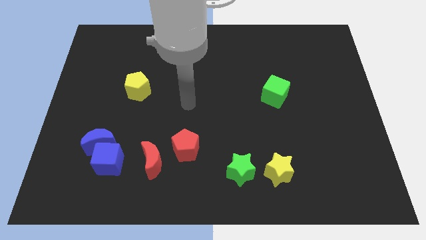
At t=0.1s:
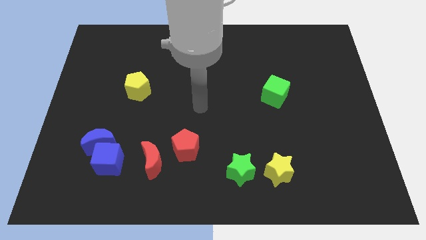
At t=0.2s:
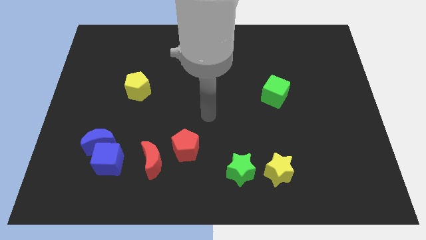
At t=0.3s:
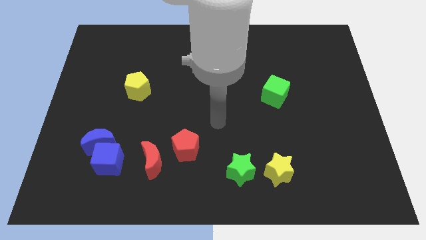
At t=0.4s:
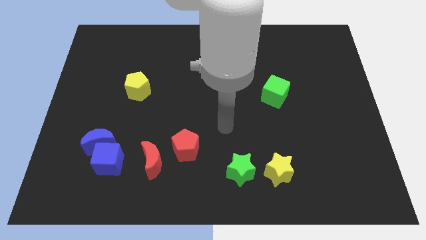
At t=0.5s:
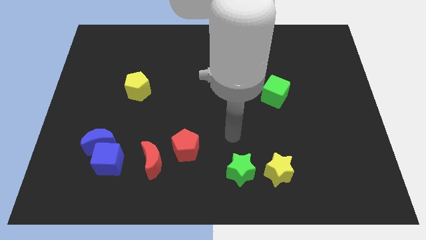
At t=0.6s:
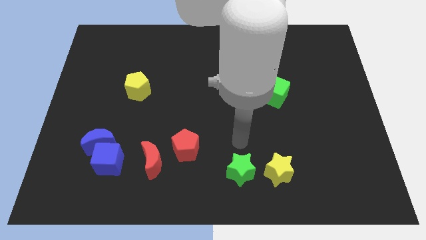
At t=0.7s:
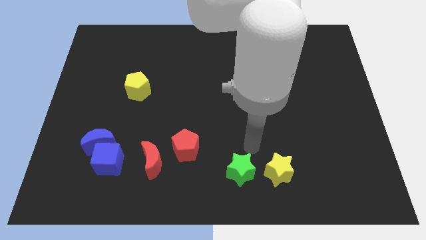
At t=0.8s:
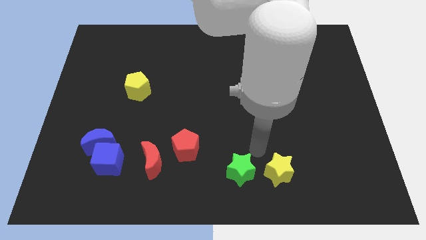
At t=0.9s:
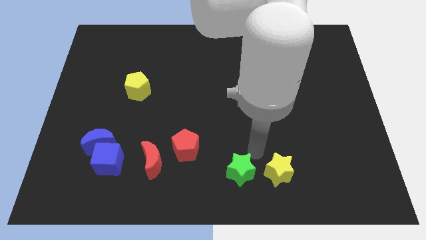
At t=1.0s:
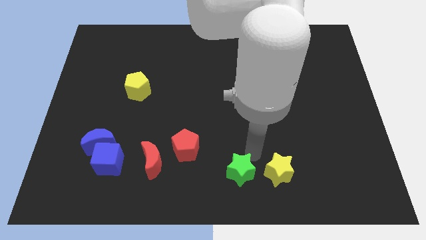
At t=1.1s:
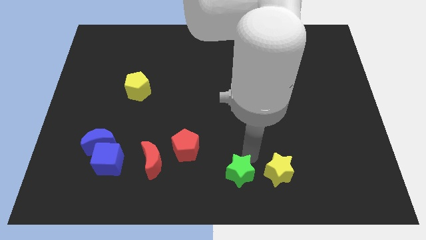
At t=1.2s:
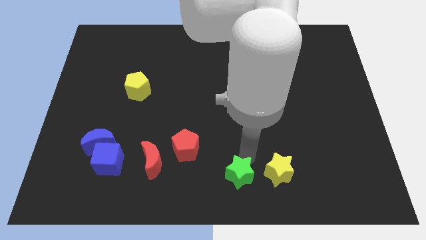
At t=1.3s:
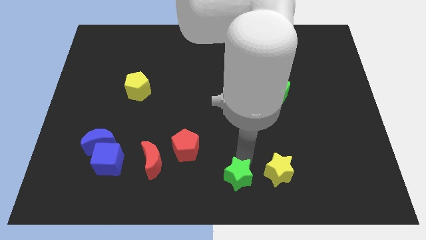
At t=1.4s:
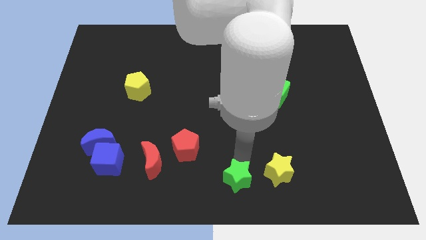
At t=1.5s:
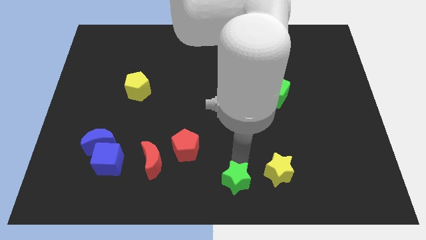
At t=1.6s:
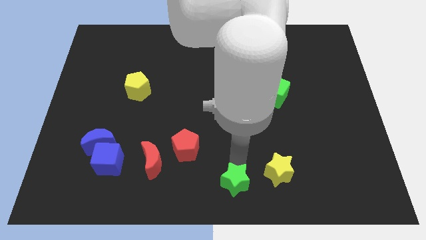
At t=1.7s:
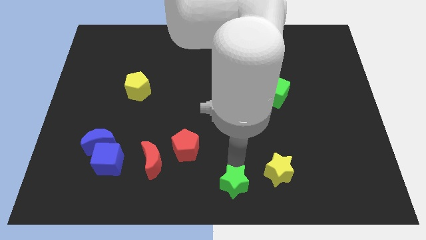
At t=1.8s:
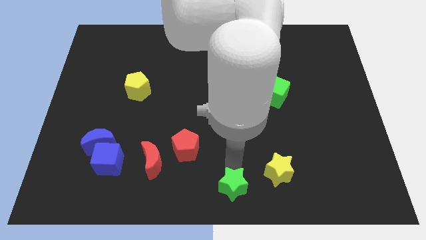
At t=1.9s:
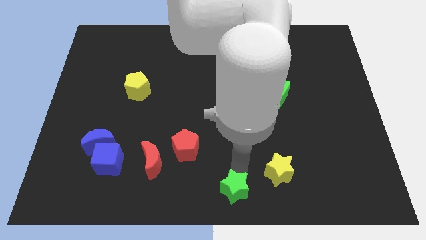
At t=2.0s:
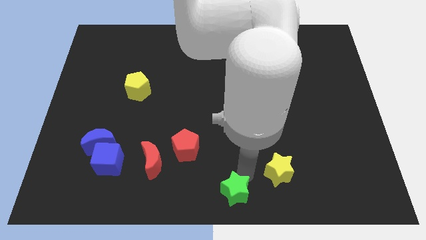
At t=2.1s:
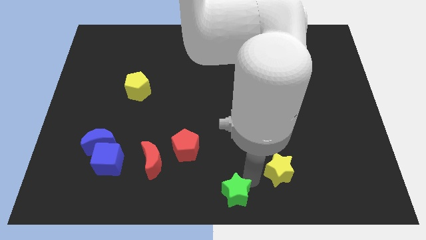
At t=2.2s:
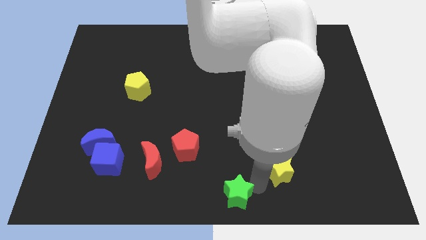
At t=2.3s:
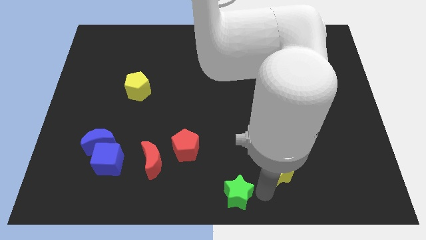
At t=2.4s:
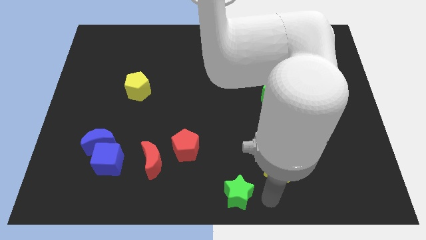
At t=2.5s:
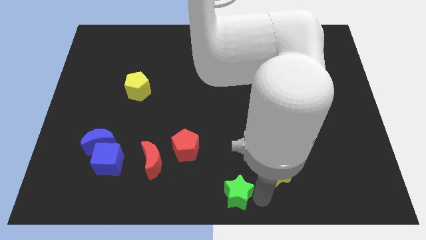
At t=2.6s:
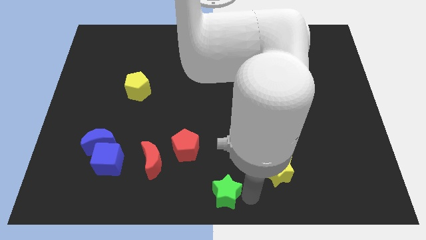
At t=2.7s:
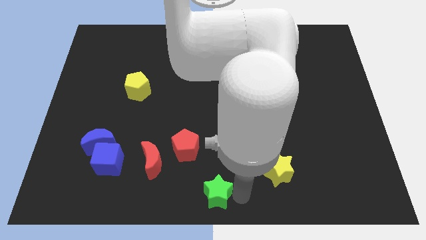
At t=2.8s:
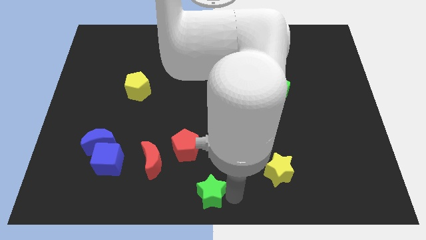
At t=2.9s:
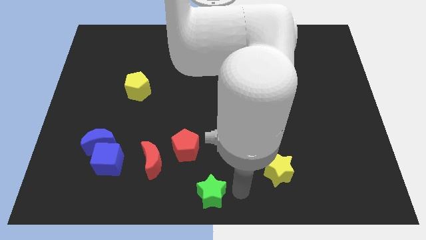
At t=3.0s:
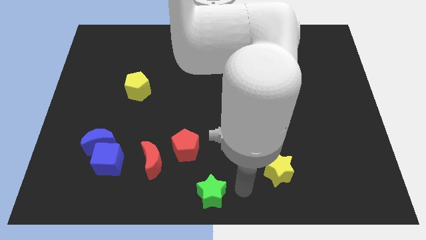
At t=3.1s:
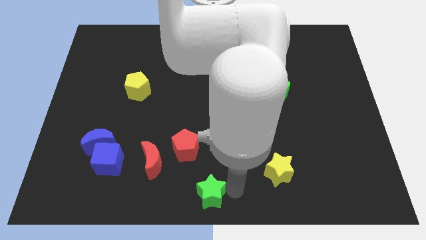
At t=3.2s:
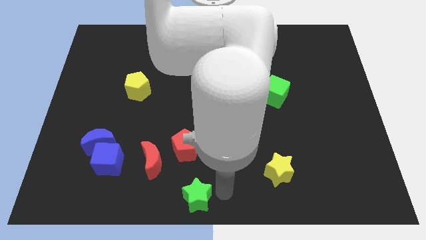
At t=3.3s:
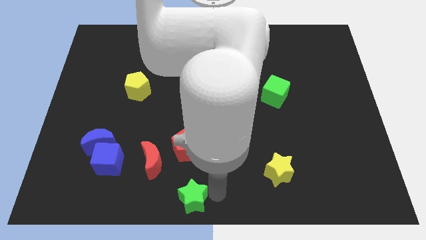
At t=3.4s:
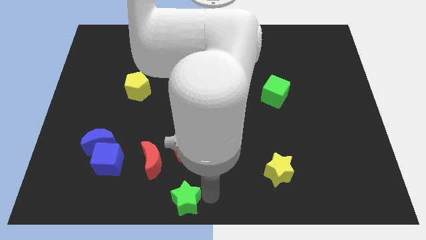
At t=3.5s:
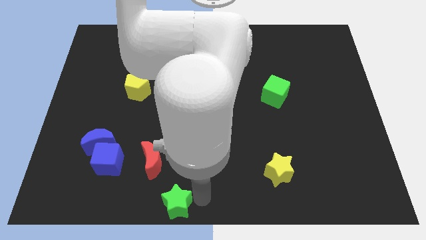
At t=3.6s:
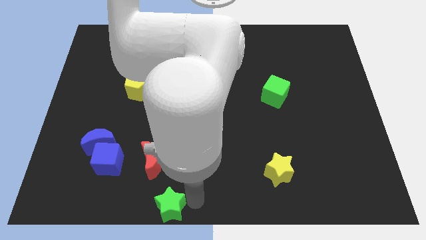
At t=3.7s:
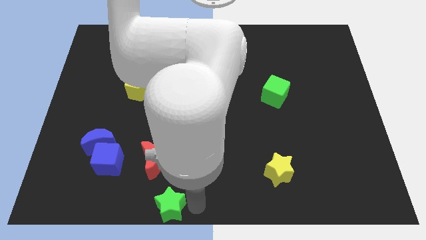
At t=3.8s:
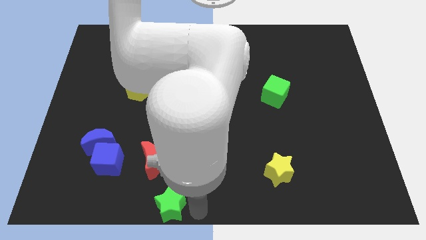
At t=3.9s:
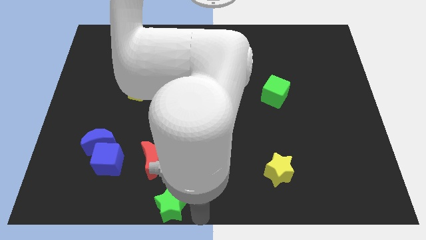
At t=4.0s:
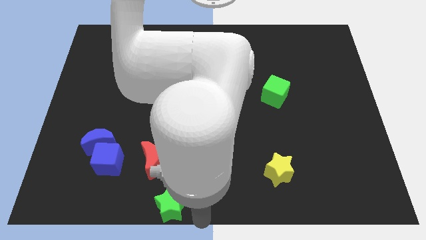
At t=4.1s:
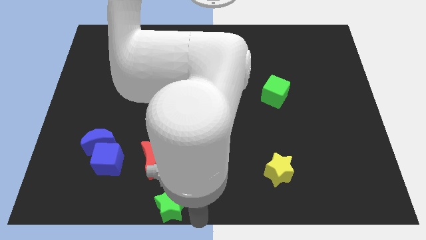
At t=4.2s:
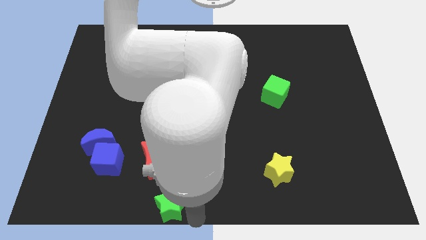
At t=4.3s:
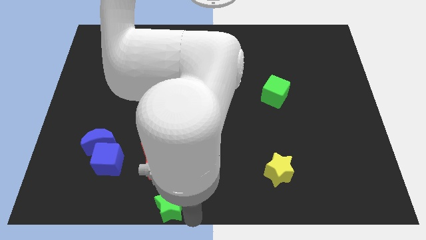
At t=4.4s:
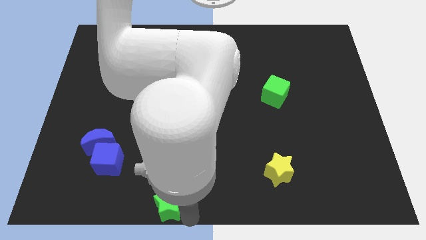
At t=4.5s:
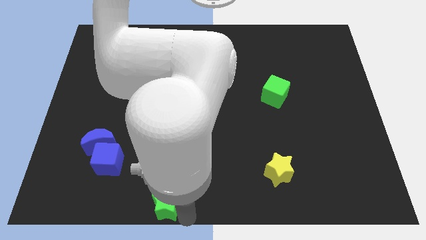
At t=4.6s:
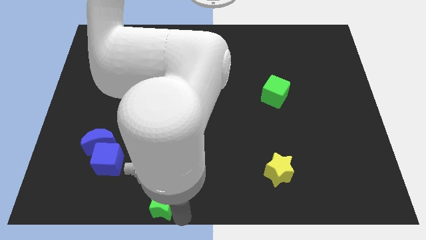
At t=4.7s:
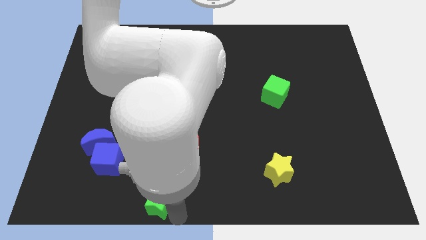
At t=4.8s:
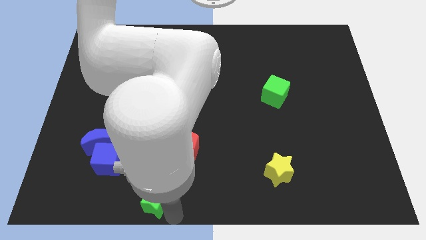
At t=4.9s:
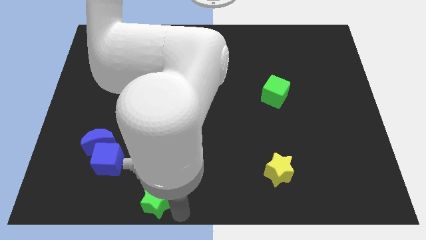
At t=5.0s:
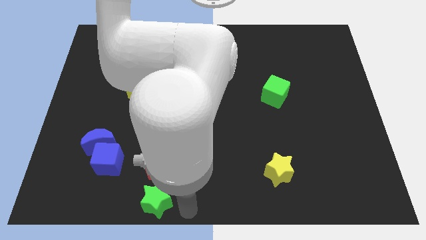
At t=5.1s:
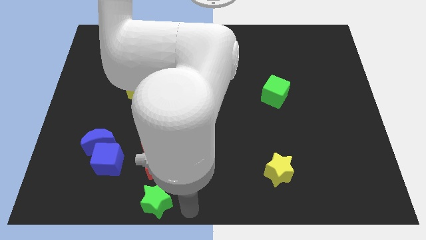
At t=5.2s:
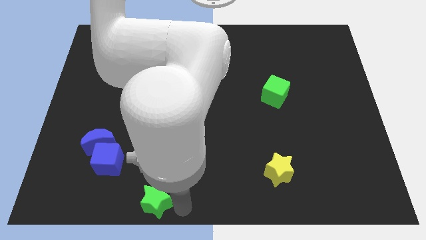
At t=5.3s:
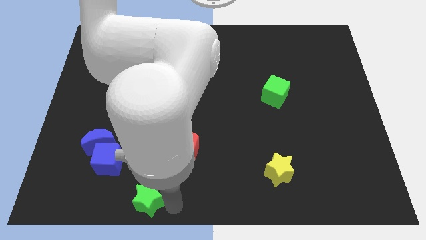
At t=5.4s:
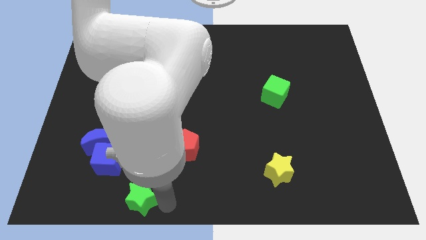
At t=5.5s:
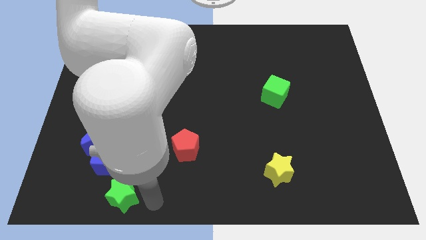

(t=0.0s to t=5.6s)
move the green star to the left

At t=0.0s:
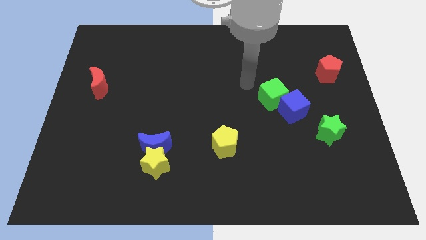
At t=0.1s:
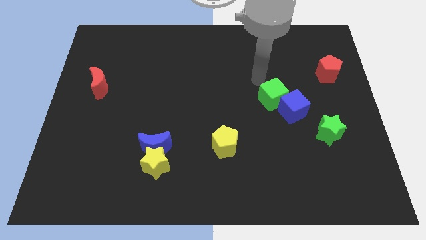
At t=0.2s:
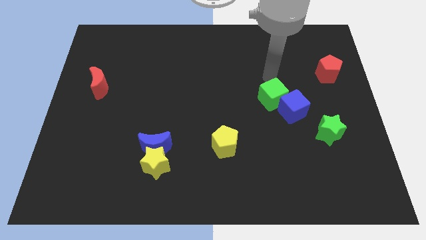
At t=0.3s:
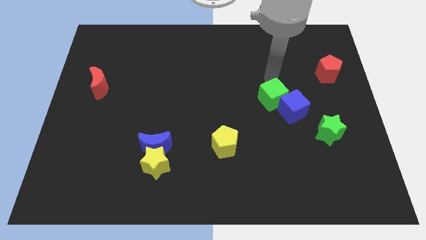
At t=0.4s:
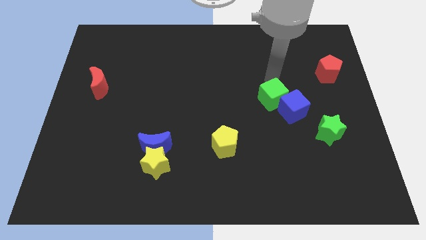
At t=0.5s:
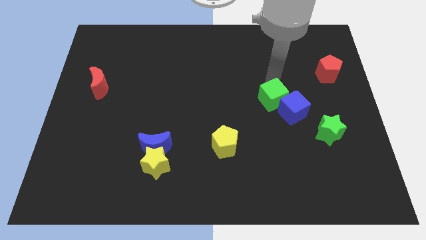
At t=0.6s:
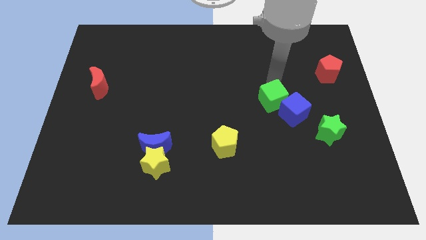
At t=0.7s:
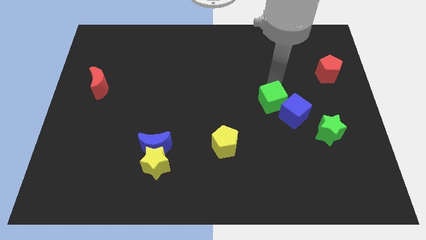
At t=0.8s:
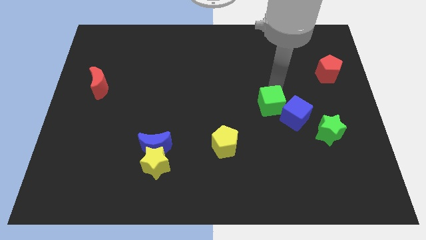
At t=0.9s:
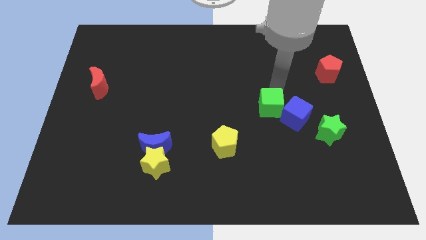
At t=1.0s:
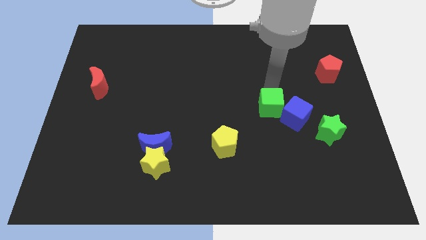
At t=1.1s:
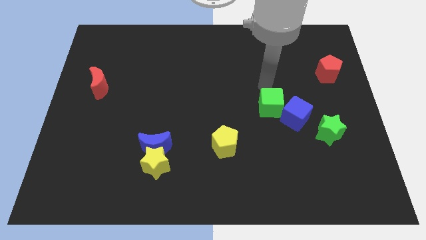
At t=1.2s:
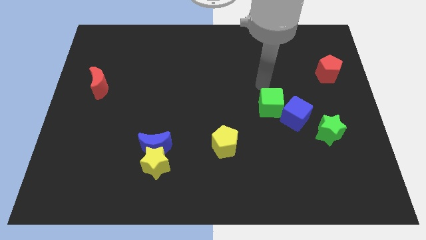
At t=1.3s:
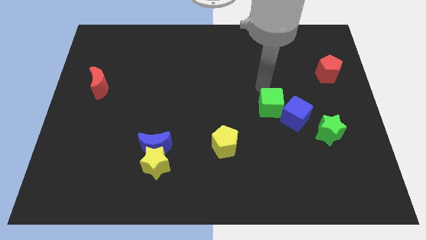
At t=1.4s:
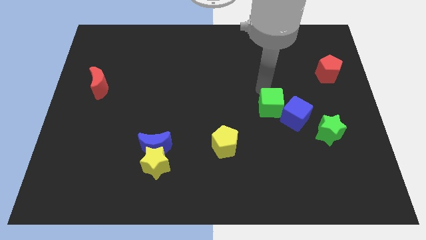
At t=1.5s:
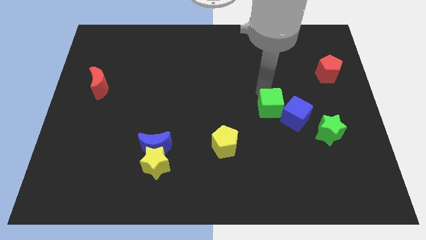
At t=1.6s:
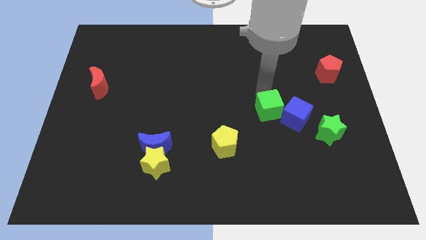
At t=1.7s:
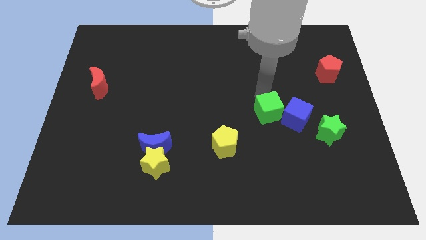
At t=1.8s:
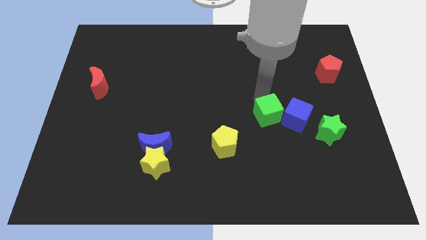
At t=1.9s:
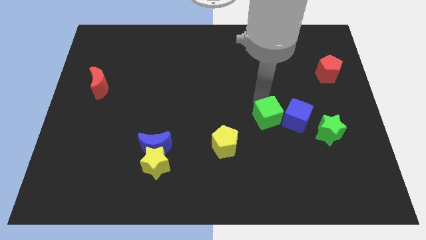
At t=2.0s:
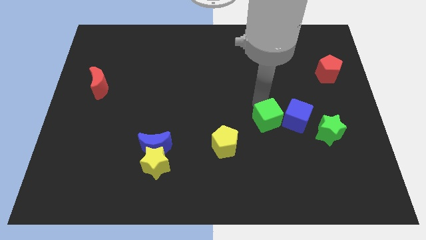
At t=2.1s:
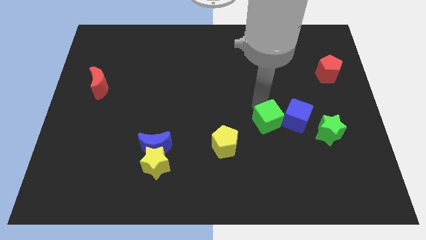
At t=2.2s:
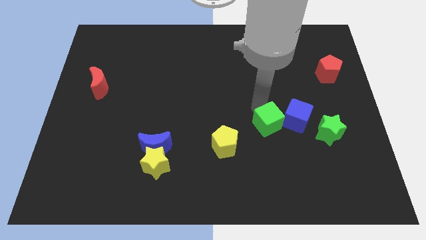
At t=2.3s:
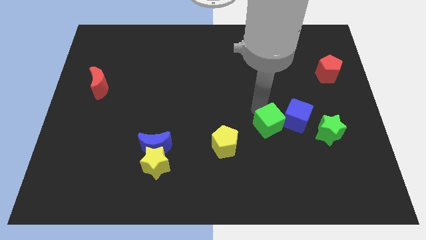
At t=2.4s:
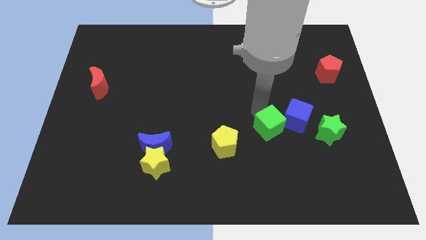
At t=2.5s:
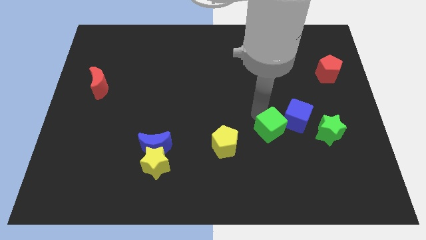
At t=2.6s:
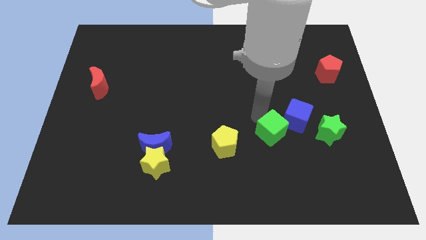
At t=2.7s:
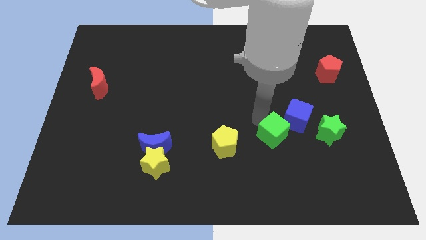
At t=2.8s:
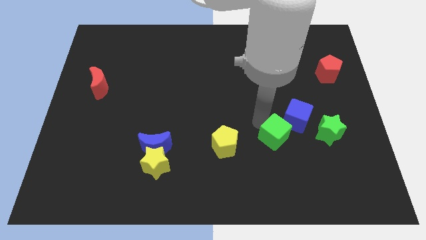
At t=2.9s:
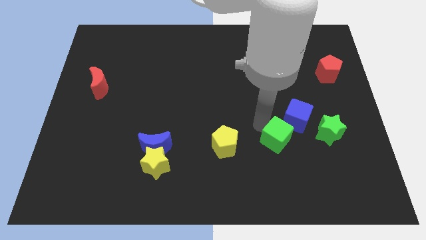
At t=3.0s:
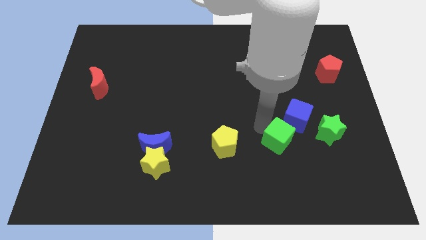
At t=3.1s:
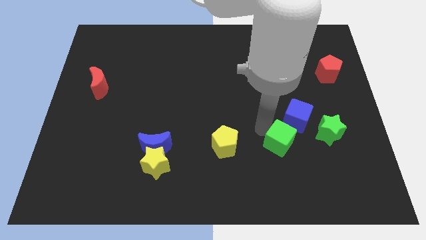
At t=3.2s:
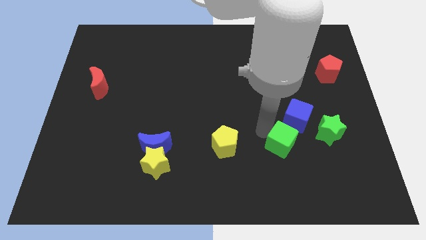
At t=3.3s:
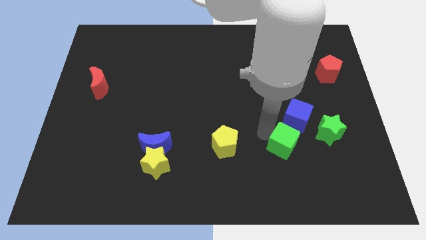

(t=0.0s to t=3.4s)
push the green cube diagonally downwards and right a little bit
